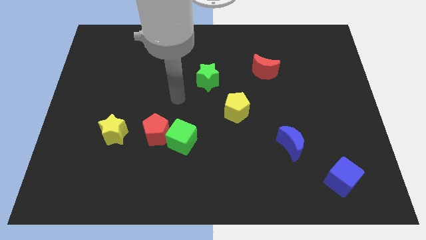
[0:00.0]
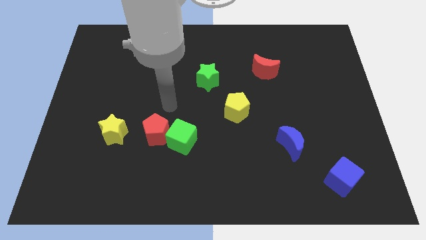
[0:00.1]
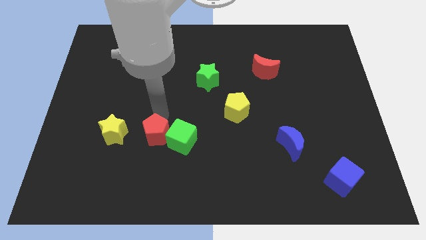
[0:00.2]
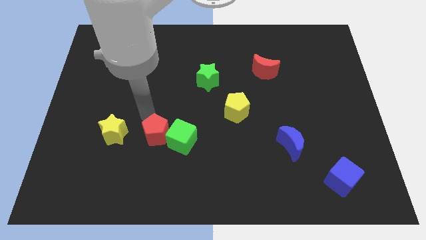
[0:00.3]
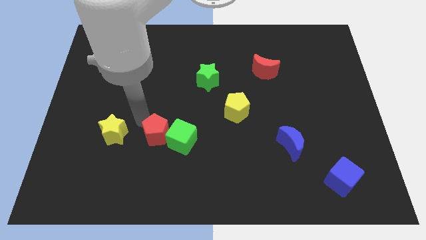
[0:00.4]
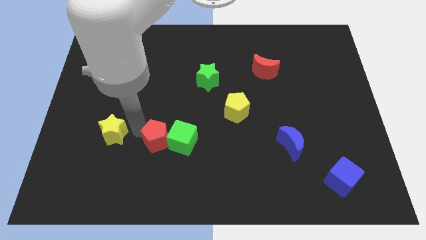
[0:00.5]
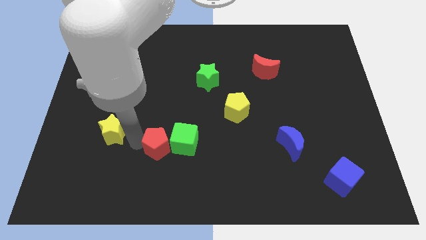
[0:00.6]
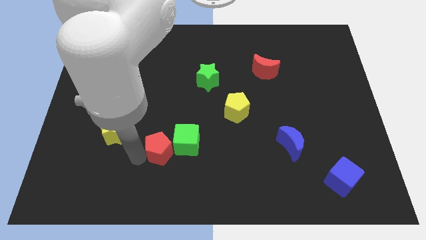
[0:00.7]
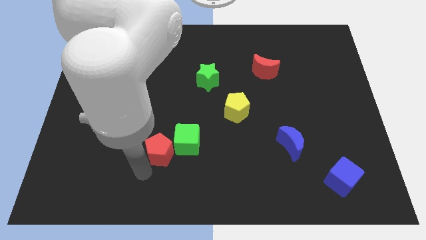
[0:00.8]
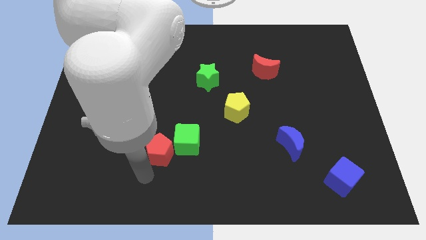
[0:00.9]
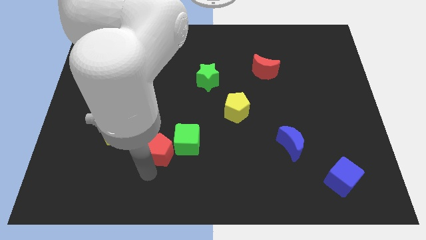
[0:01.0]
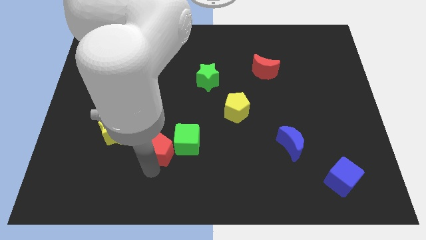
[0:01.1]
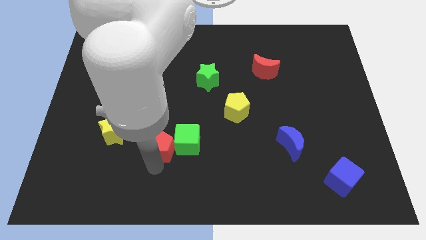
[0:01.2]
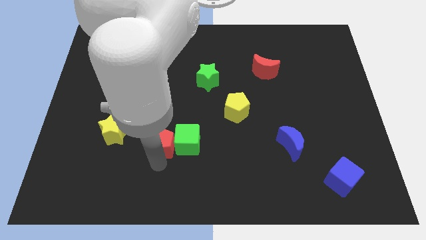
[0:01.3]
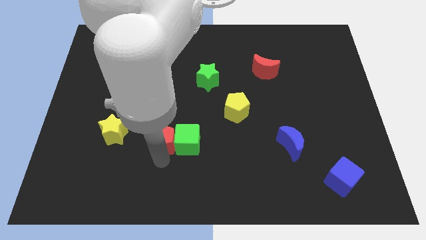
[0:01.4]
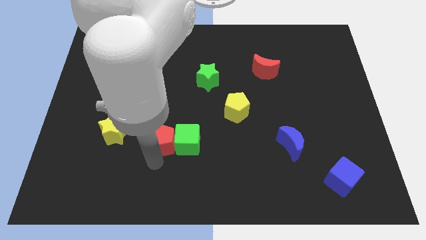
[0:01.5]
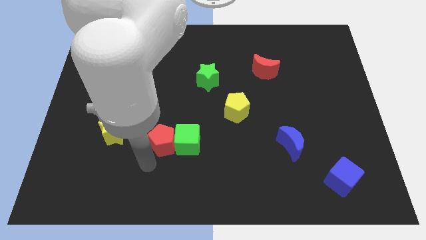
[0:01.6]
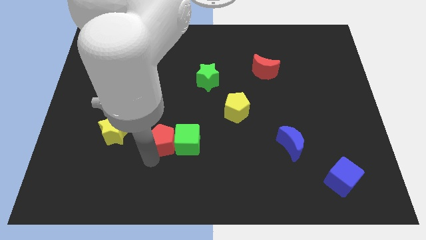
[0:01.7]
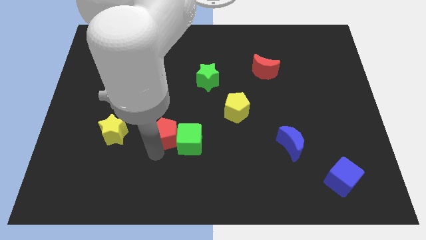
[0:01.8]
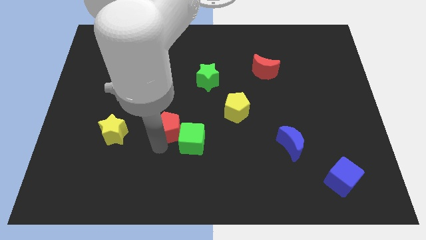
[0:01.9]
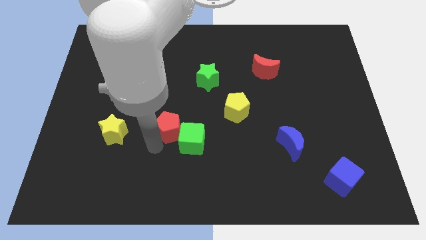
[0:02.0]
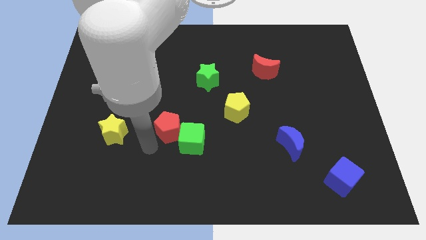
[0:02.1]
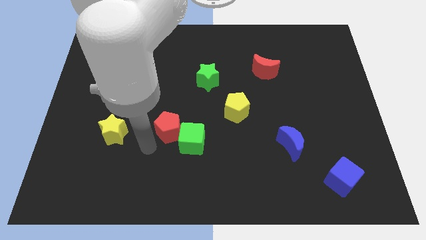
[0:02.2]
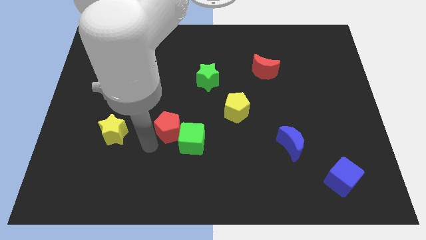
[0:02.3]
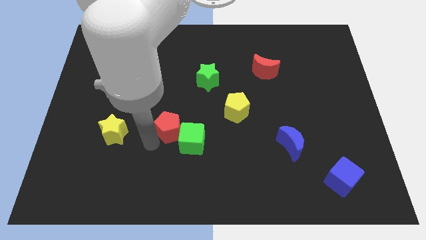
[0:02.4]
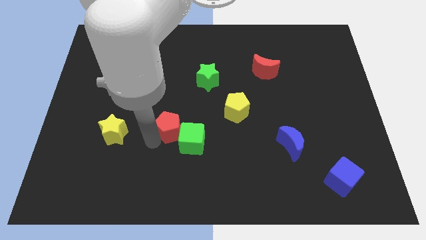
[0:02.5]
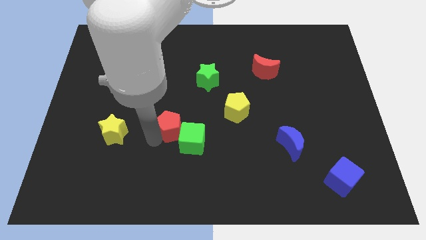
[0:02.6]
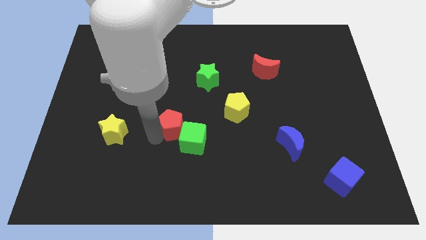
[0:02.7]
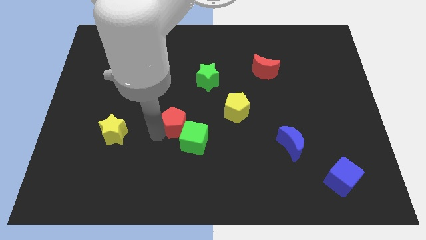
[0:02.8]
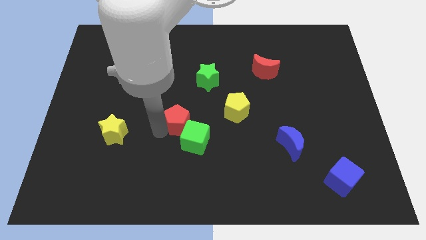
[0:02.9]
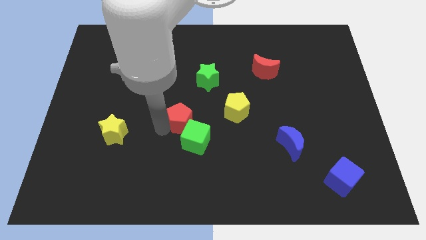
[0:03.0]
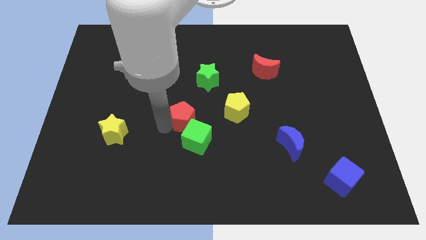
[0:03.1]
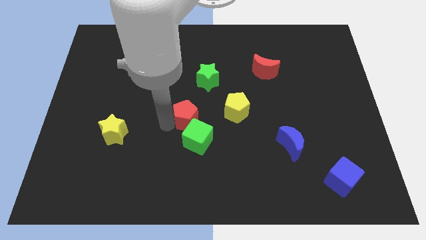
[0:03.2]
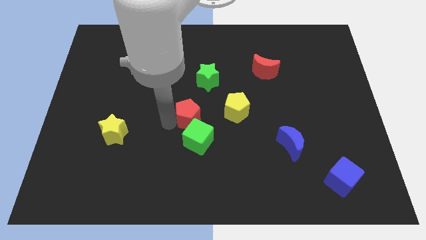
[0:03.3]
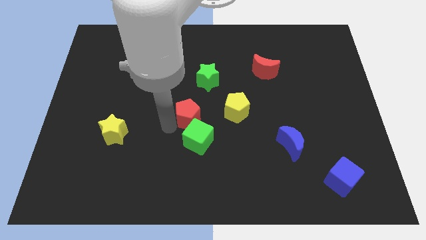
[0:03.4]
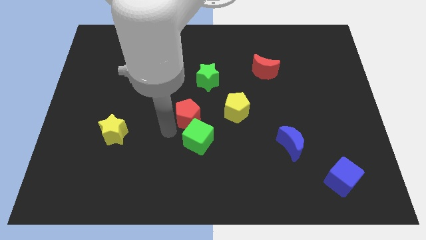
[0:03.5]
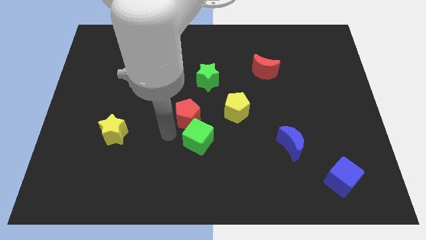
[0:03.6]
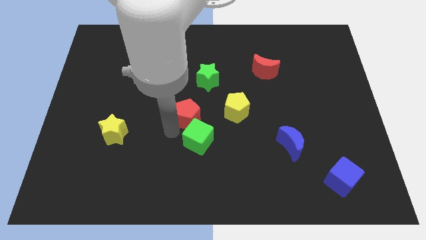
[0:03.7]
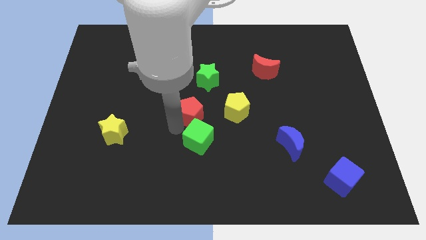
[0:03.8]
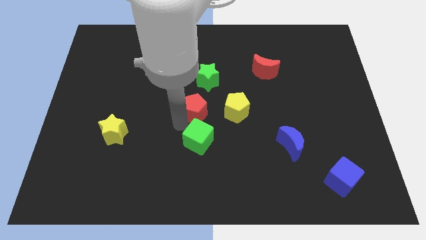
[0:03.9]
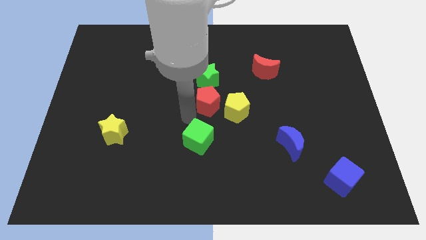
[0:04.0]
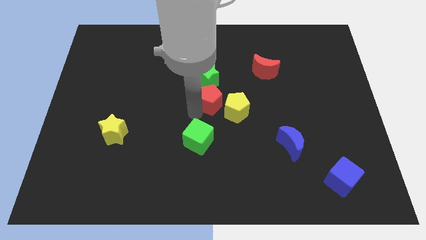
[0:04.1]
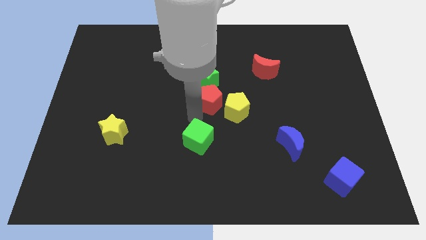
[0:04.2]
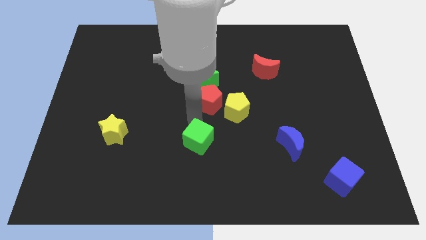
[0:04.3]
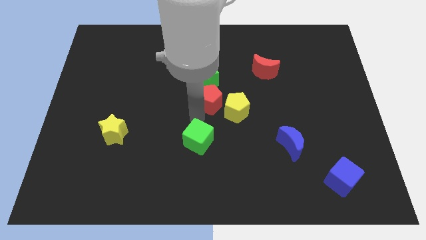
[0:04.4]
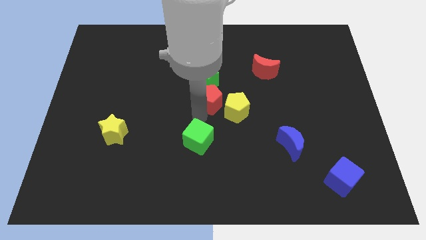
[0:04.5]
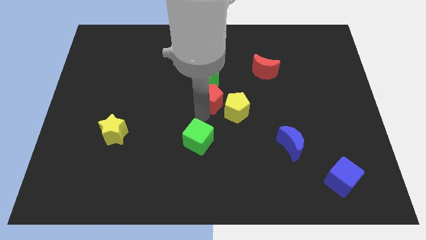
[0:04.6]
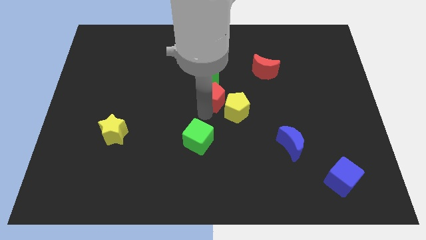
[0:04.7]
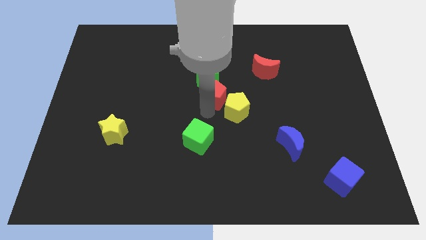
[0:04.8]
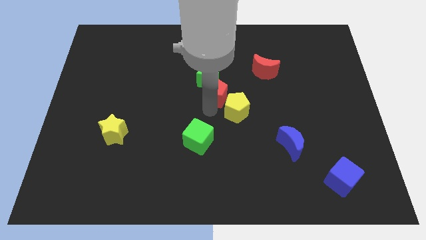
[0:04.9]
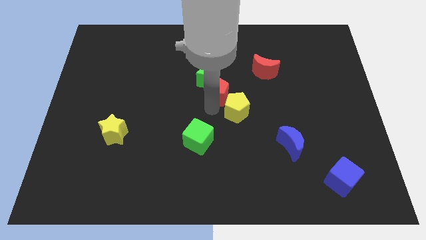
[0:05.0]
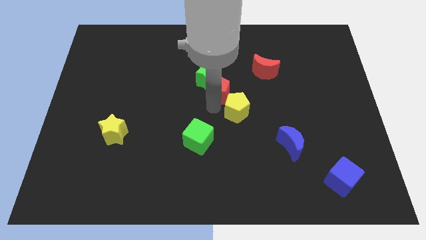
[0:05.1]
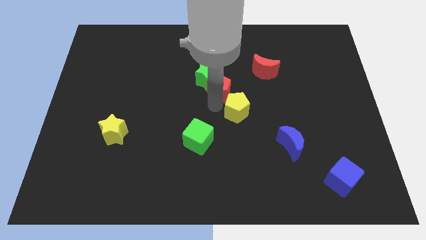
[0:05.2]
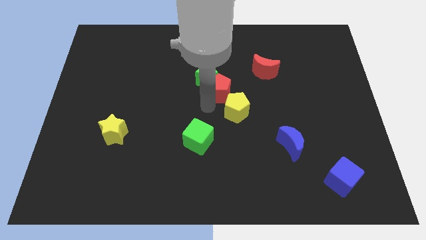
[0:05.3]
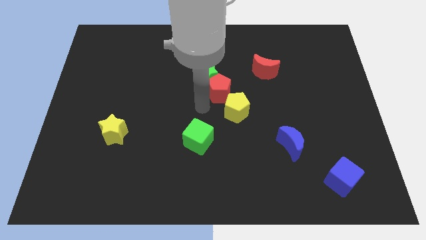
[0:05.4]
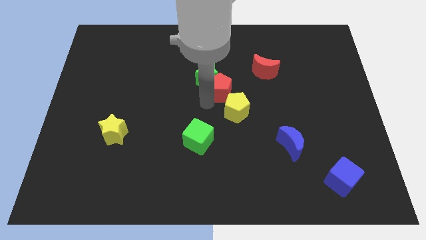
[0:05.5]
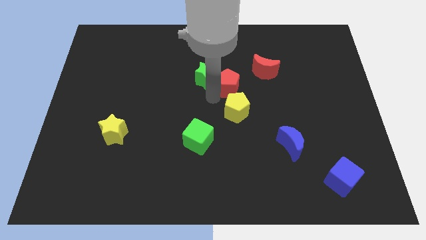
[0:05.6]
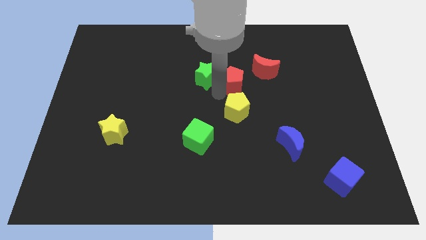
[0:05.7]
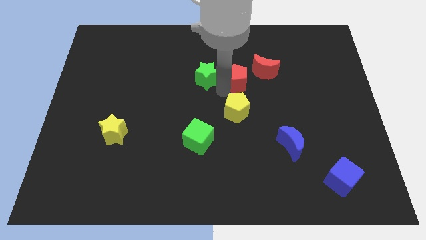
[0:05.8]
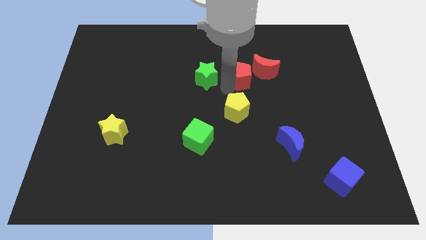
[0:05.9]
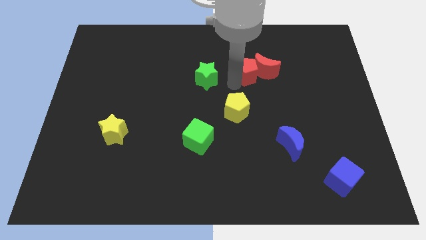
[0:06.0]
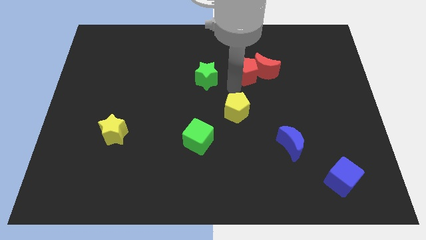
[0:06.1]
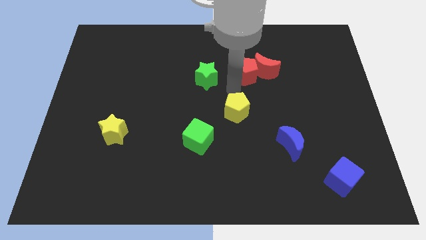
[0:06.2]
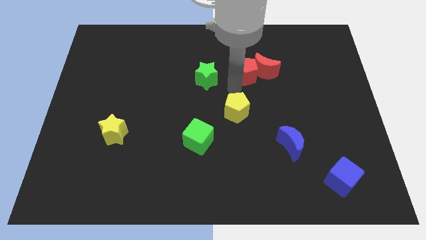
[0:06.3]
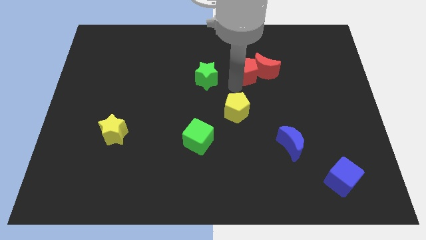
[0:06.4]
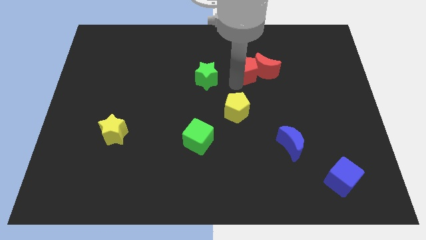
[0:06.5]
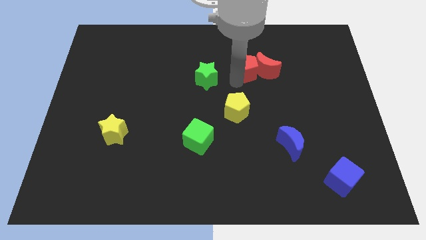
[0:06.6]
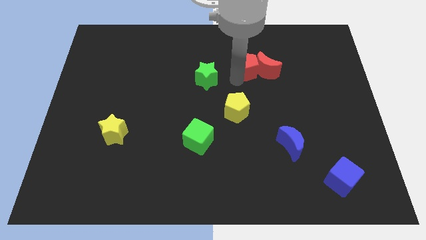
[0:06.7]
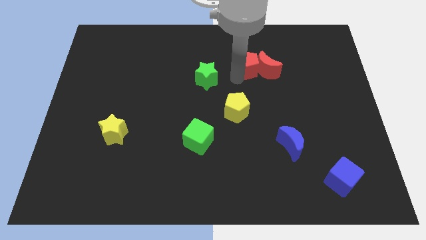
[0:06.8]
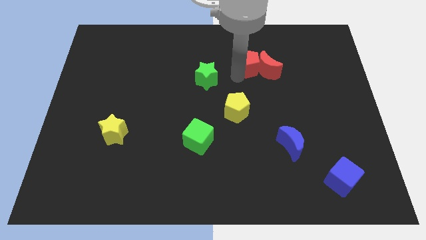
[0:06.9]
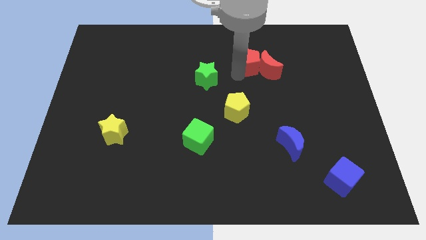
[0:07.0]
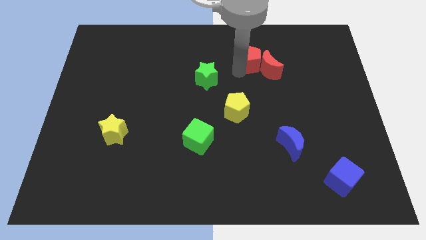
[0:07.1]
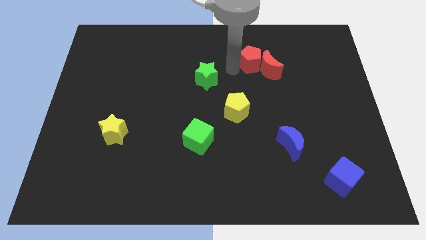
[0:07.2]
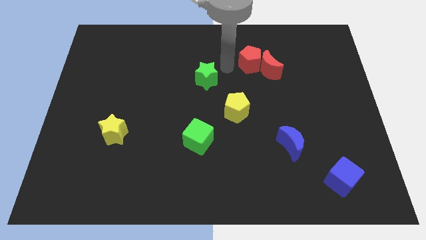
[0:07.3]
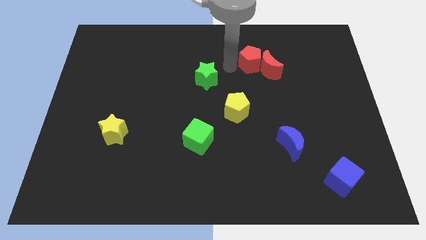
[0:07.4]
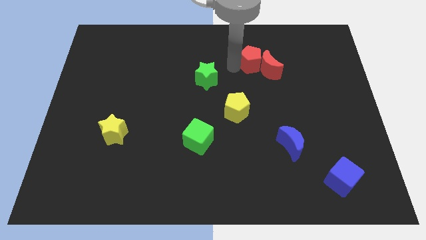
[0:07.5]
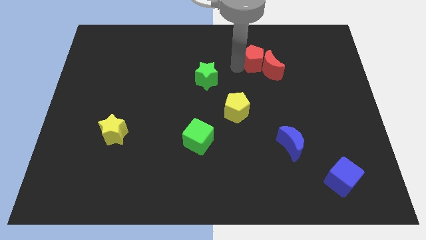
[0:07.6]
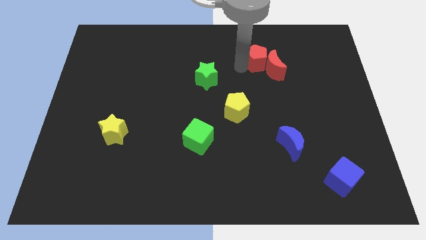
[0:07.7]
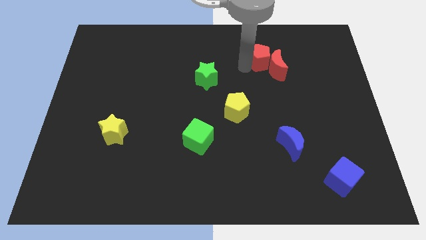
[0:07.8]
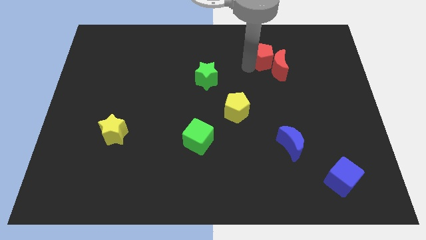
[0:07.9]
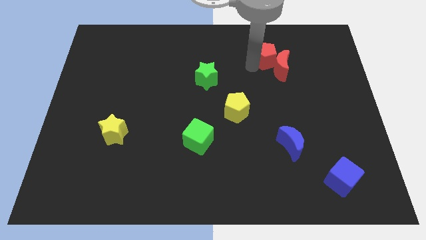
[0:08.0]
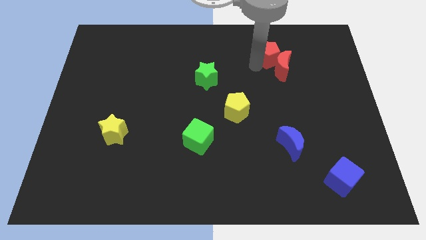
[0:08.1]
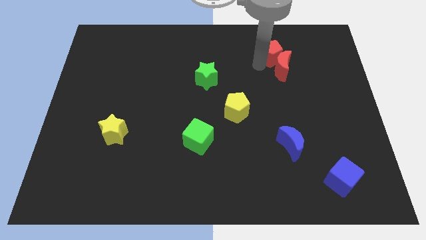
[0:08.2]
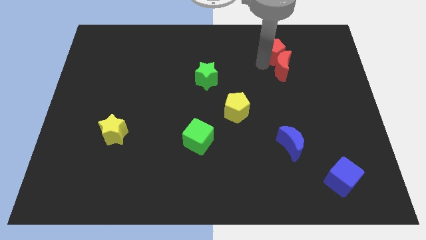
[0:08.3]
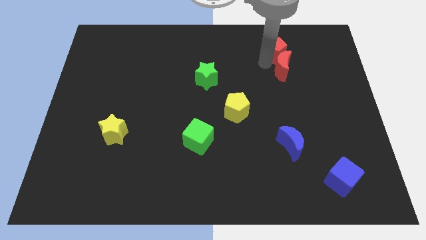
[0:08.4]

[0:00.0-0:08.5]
put the red pentagon to the top right side of the red moon
